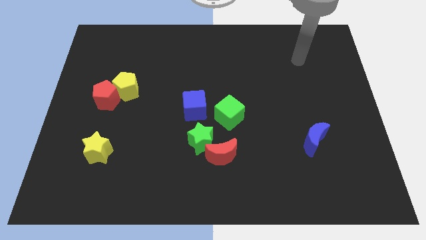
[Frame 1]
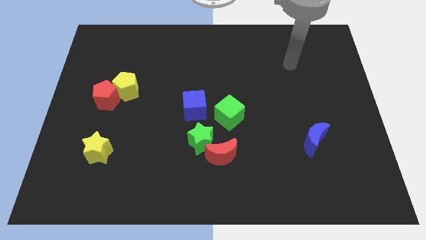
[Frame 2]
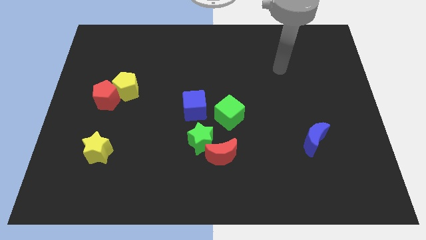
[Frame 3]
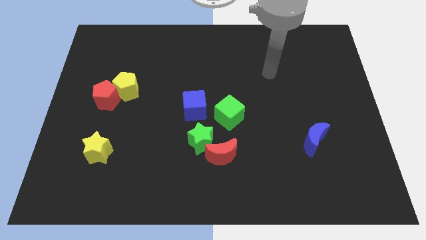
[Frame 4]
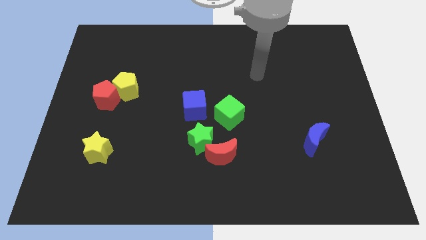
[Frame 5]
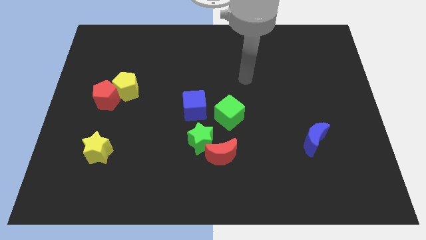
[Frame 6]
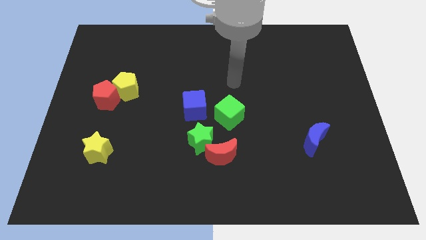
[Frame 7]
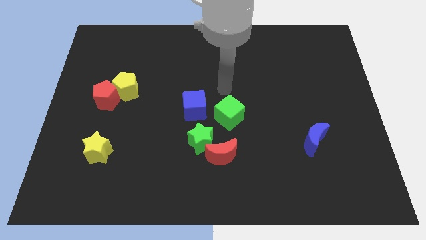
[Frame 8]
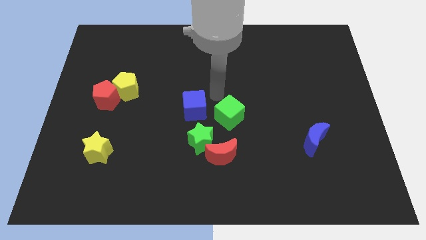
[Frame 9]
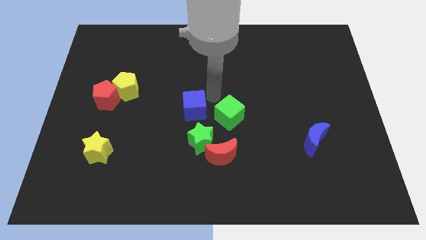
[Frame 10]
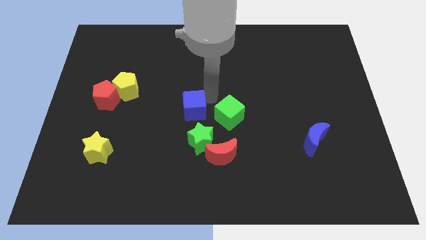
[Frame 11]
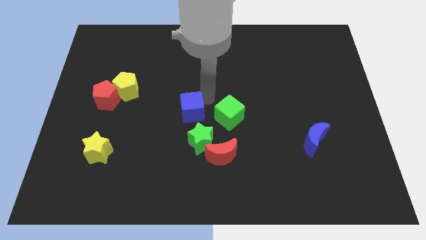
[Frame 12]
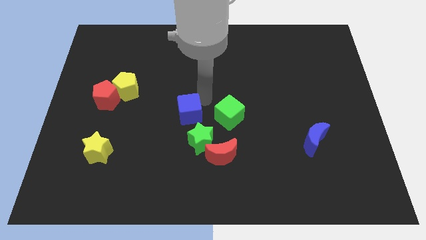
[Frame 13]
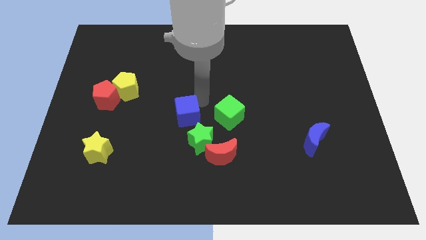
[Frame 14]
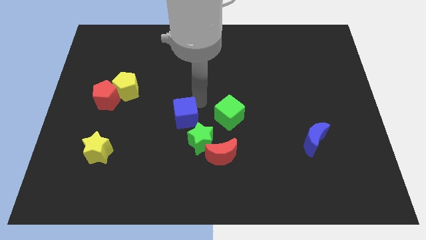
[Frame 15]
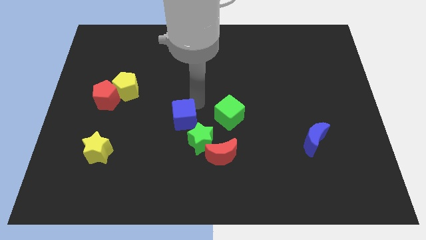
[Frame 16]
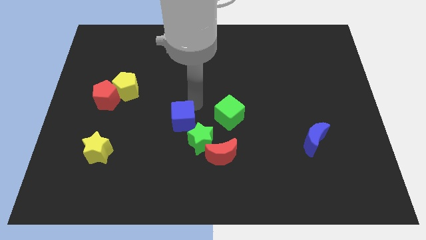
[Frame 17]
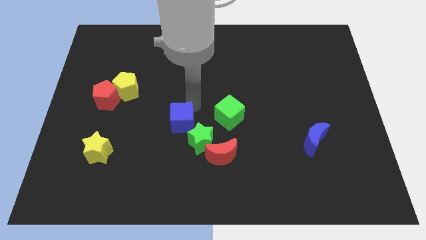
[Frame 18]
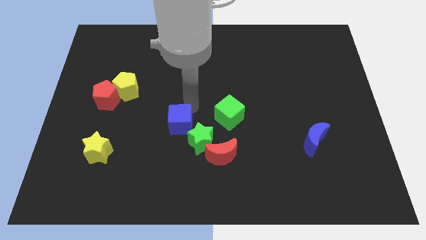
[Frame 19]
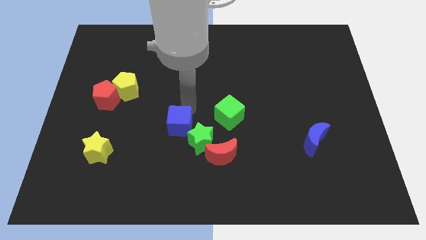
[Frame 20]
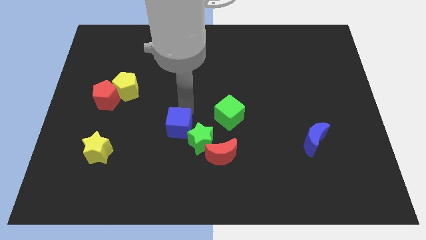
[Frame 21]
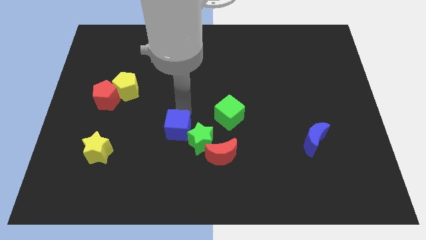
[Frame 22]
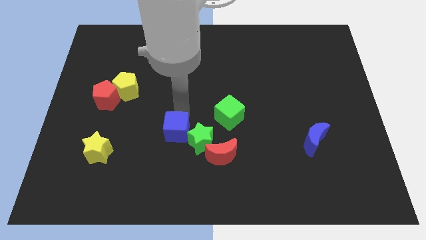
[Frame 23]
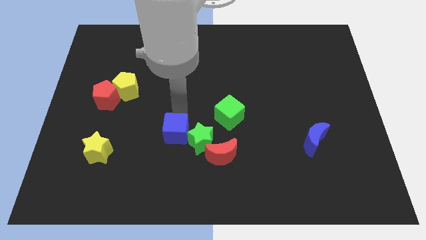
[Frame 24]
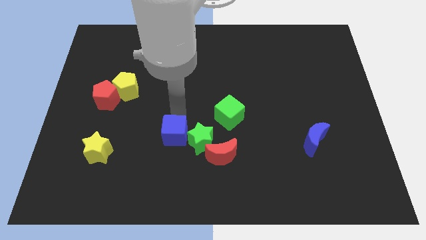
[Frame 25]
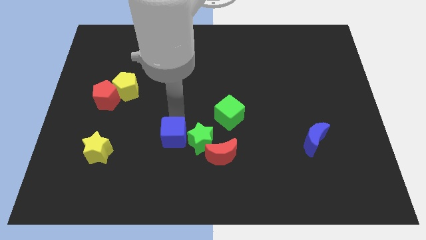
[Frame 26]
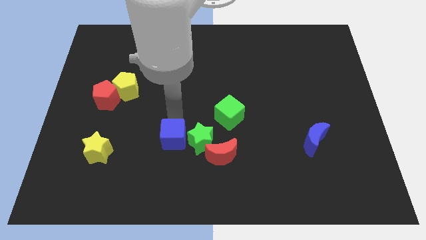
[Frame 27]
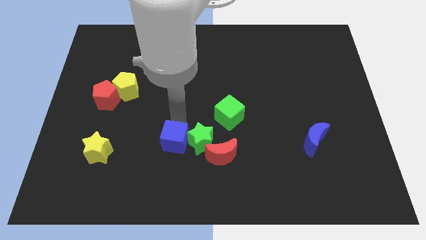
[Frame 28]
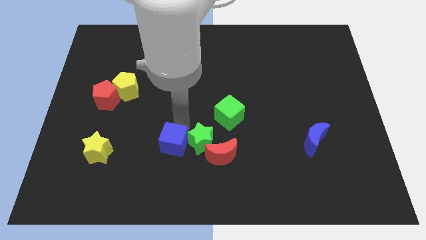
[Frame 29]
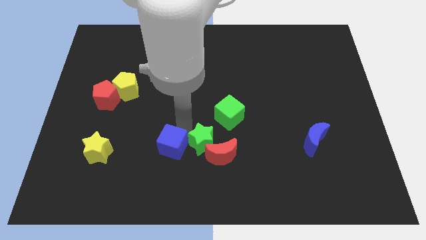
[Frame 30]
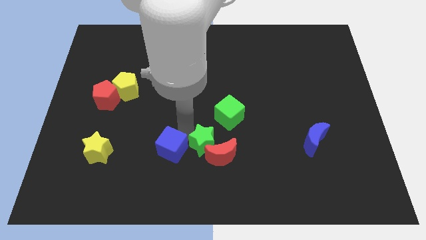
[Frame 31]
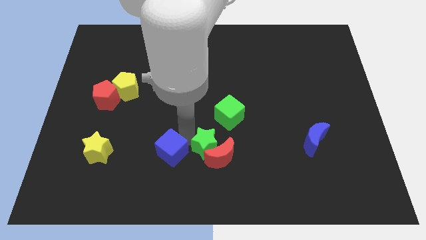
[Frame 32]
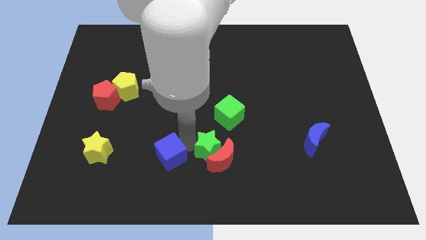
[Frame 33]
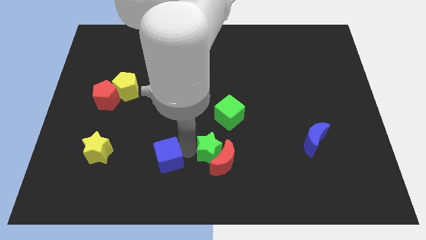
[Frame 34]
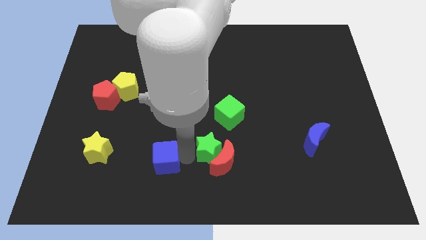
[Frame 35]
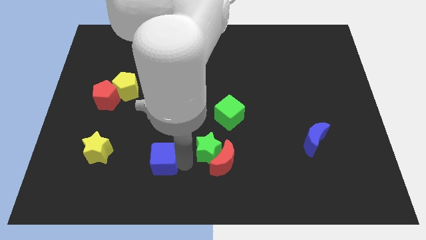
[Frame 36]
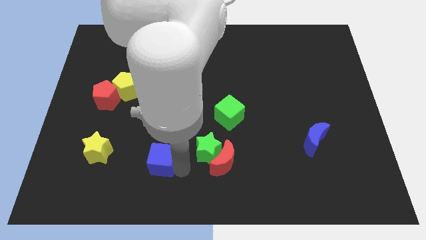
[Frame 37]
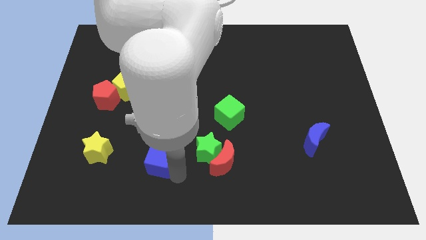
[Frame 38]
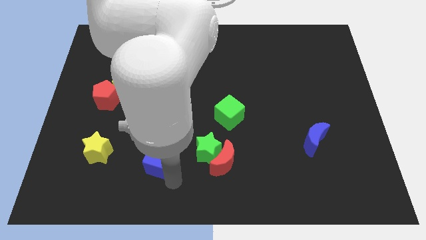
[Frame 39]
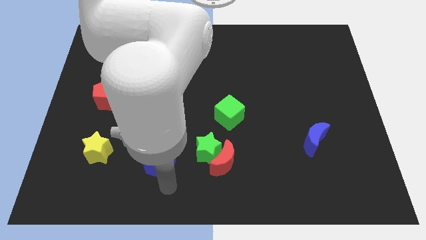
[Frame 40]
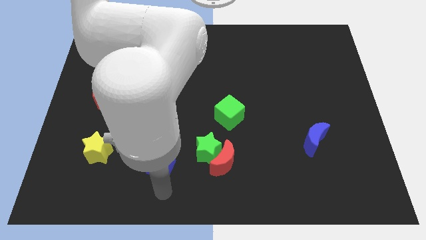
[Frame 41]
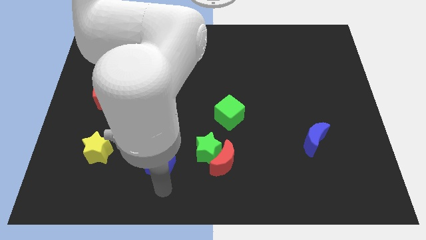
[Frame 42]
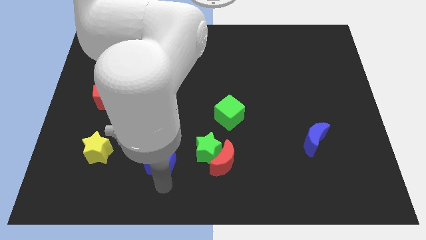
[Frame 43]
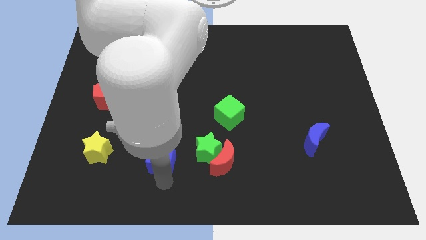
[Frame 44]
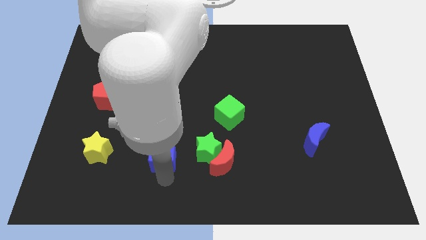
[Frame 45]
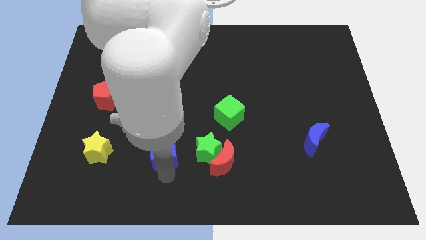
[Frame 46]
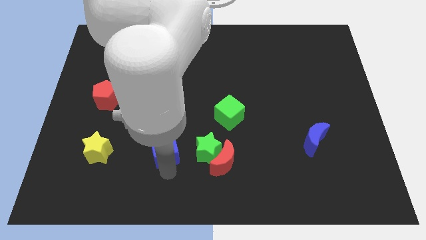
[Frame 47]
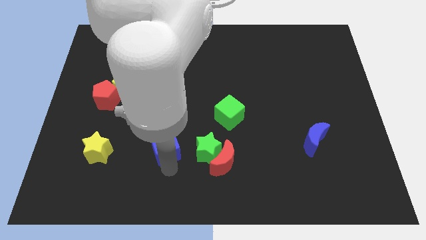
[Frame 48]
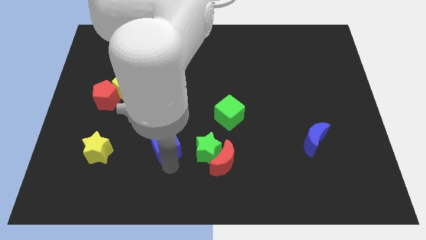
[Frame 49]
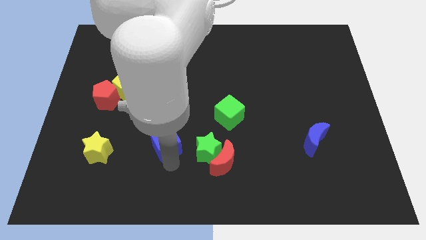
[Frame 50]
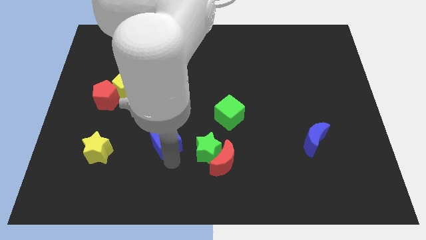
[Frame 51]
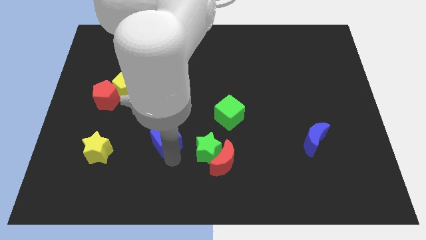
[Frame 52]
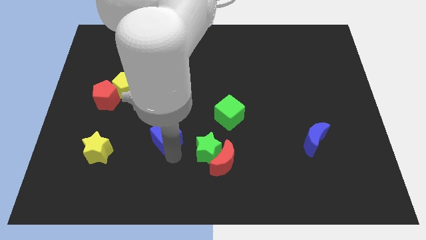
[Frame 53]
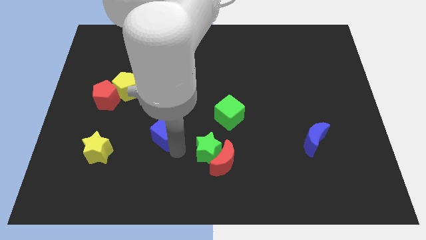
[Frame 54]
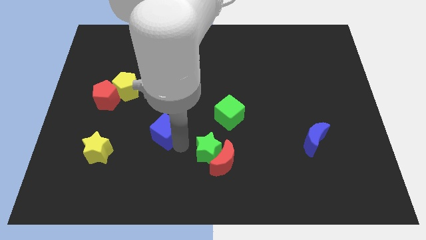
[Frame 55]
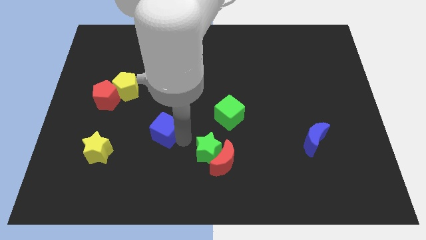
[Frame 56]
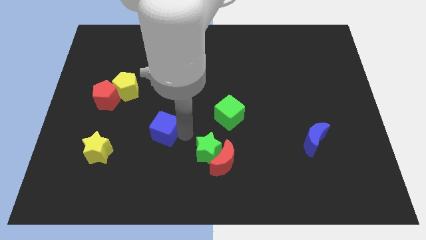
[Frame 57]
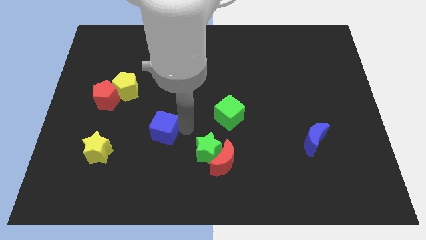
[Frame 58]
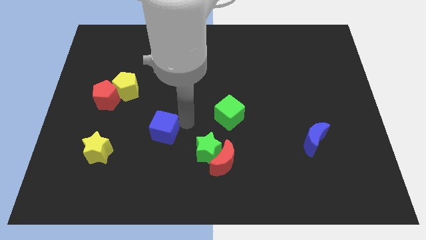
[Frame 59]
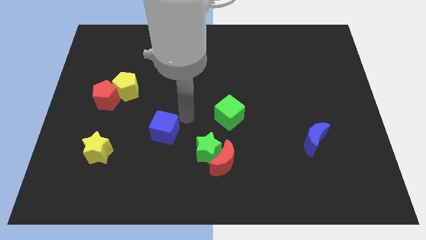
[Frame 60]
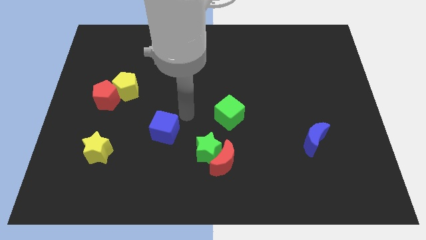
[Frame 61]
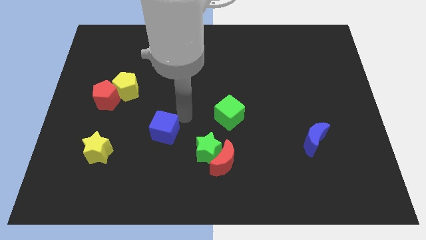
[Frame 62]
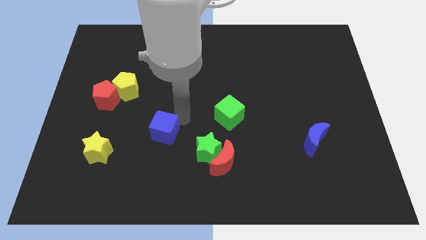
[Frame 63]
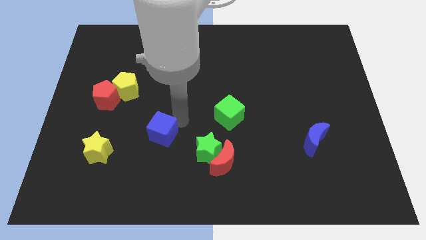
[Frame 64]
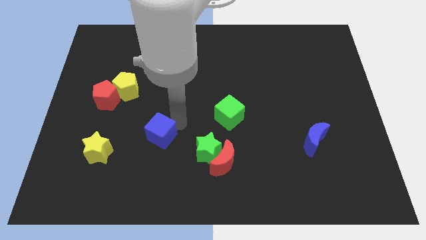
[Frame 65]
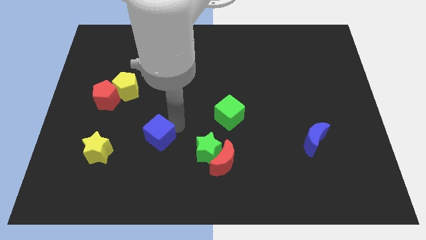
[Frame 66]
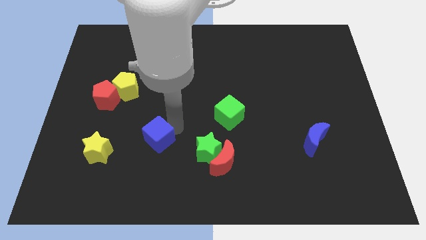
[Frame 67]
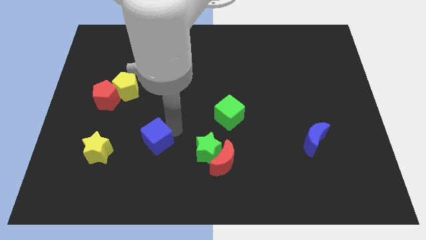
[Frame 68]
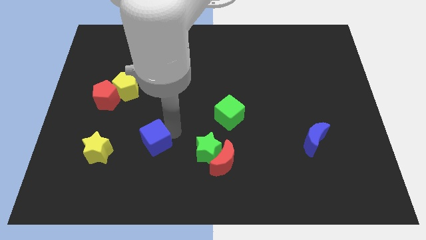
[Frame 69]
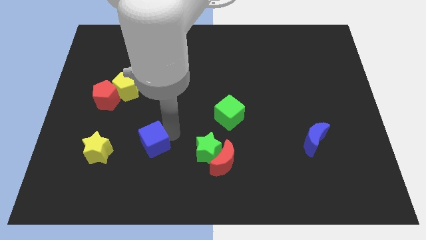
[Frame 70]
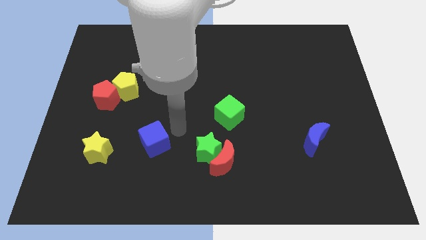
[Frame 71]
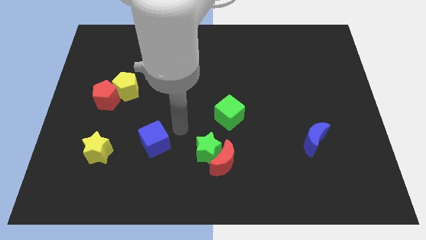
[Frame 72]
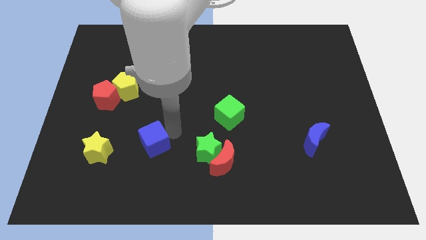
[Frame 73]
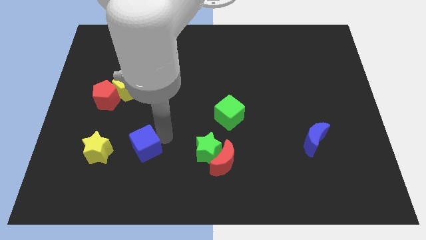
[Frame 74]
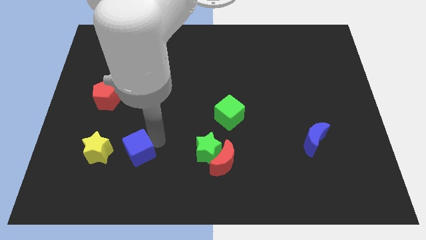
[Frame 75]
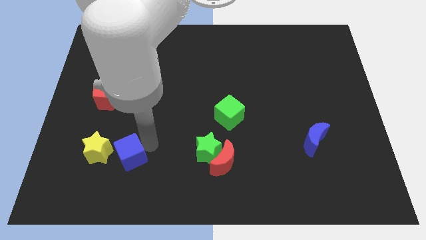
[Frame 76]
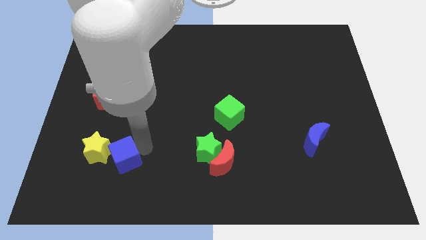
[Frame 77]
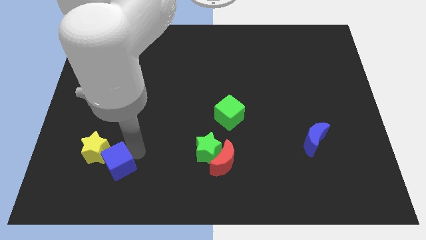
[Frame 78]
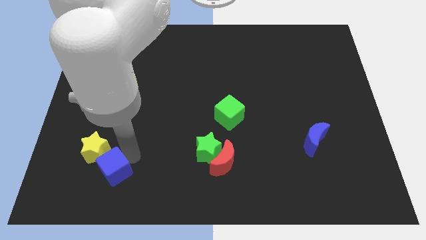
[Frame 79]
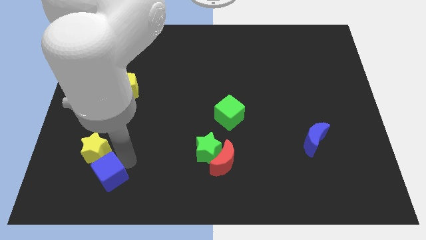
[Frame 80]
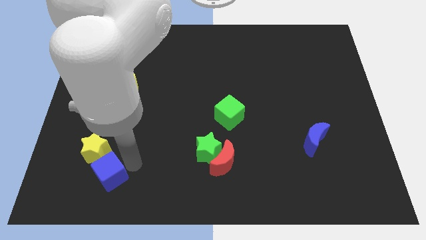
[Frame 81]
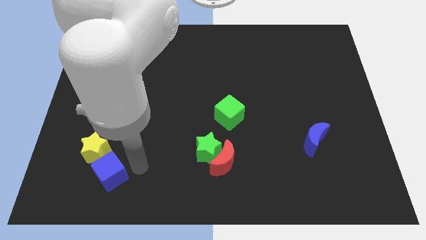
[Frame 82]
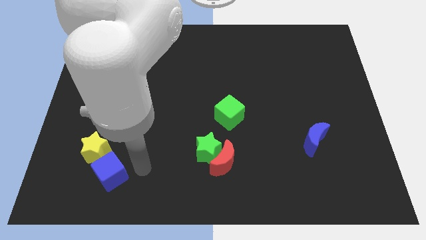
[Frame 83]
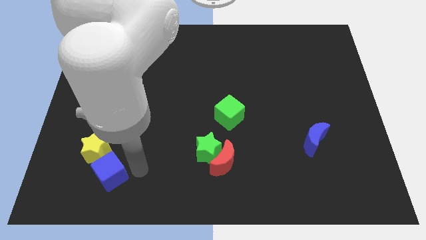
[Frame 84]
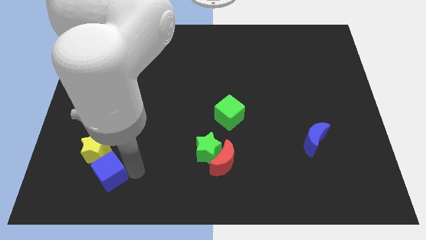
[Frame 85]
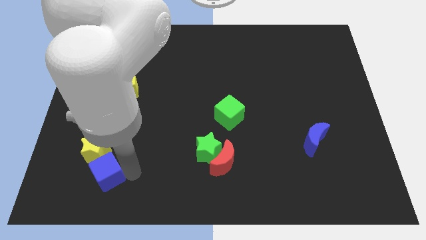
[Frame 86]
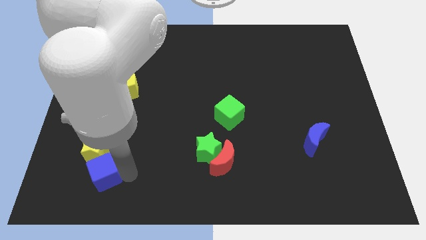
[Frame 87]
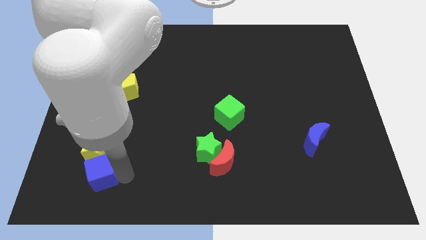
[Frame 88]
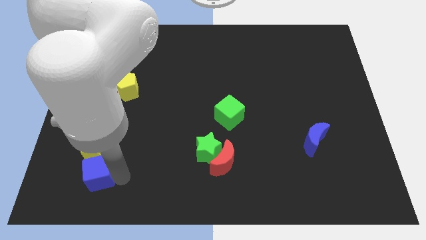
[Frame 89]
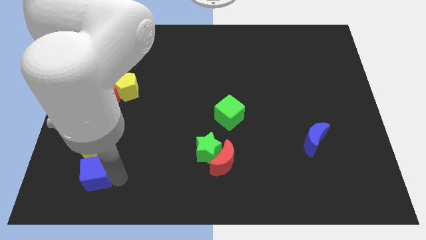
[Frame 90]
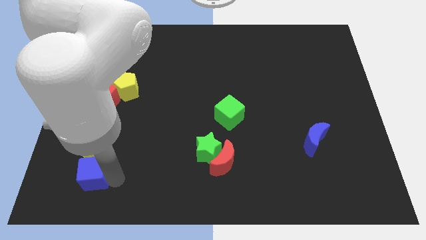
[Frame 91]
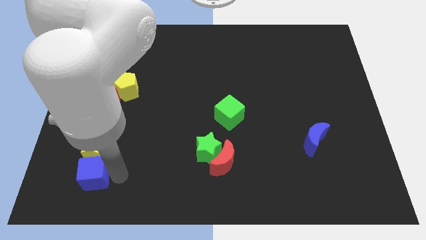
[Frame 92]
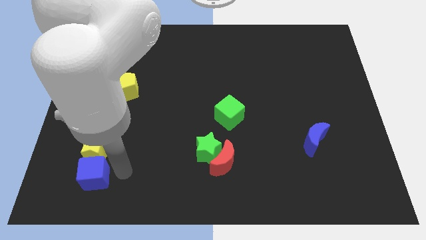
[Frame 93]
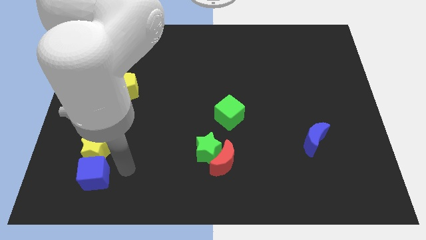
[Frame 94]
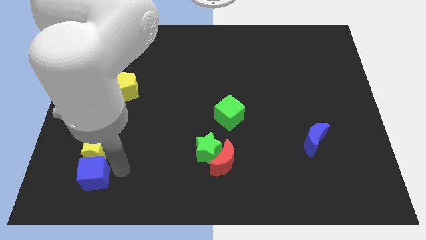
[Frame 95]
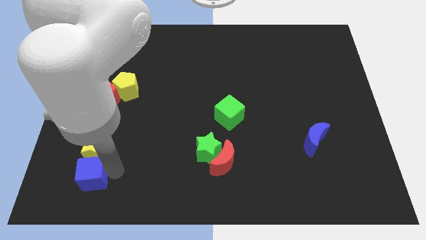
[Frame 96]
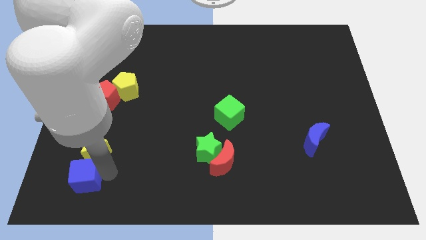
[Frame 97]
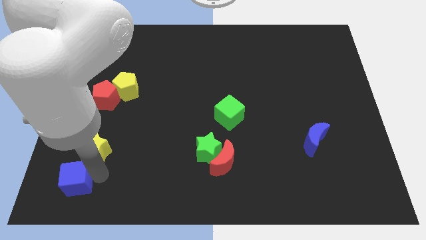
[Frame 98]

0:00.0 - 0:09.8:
put the blue cube to the bottom left
